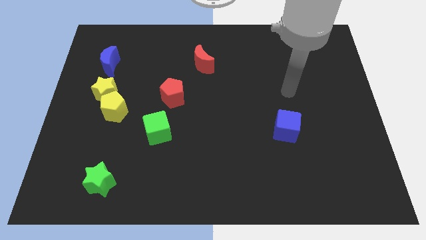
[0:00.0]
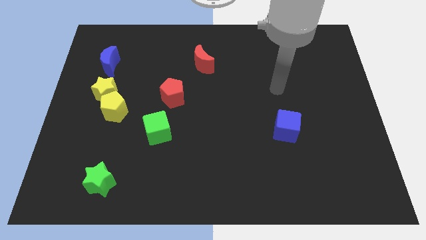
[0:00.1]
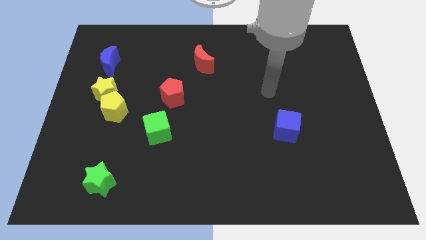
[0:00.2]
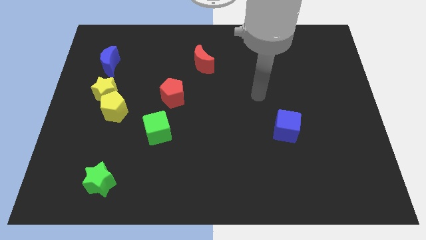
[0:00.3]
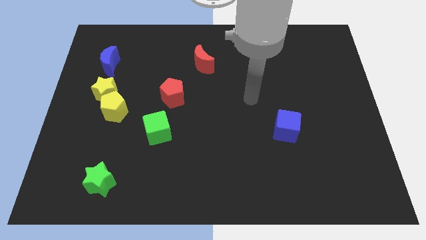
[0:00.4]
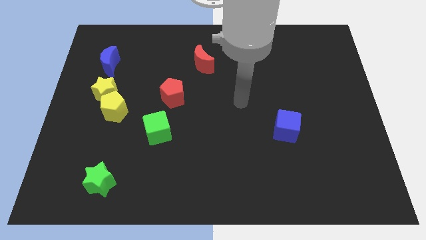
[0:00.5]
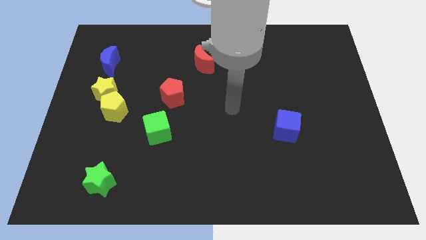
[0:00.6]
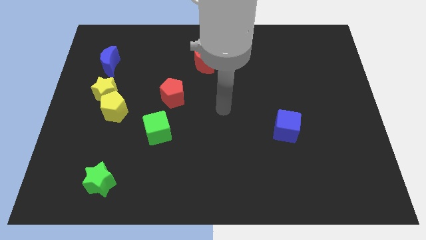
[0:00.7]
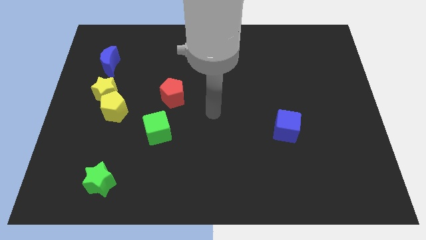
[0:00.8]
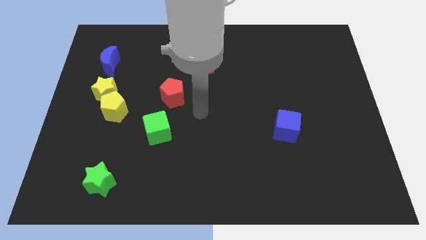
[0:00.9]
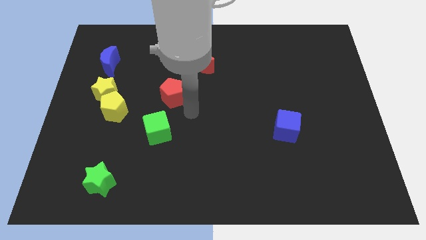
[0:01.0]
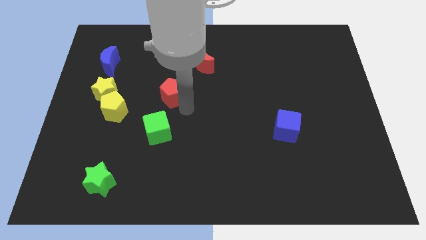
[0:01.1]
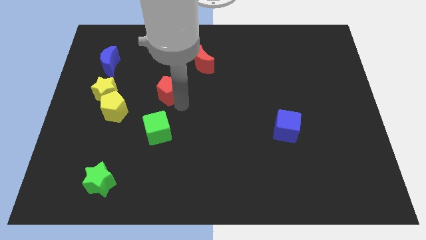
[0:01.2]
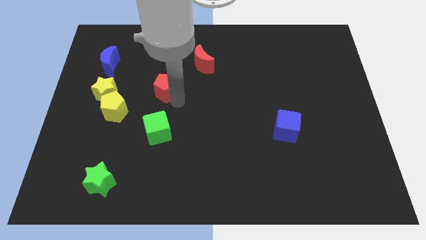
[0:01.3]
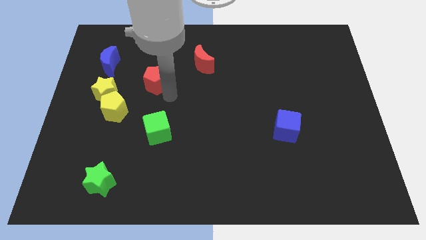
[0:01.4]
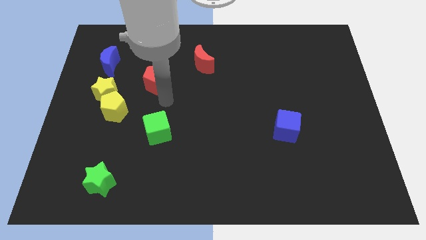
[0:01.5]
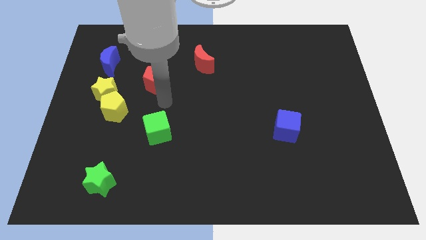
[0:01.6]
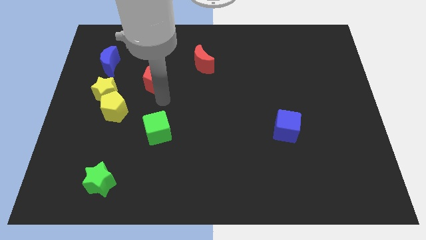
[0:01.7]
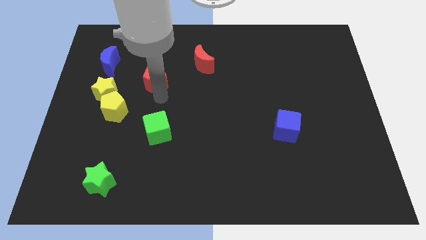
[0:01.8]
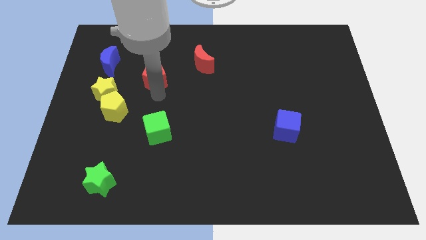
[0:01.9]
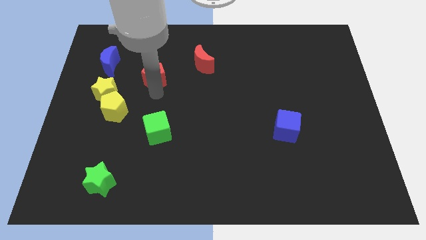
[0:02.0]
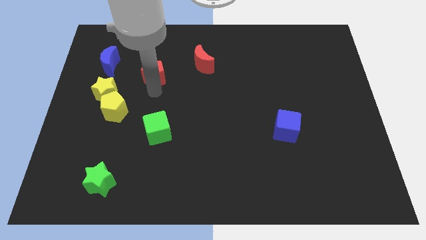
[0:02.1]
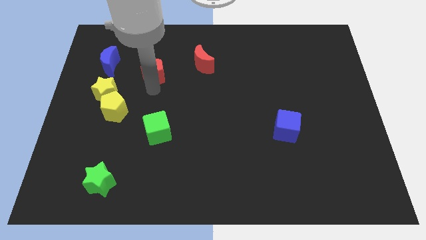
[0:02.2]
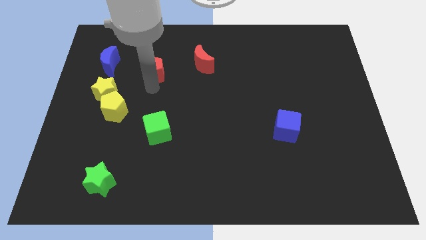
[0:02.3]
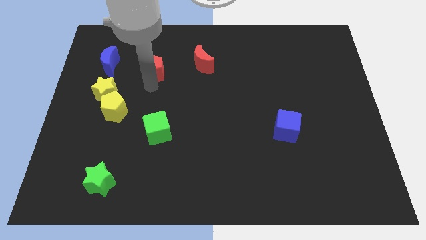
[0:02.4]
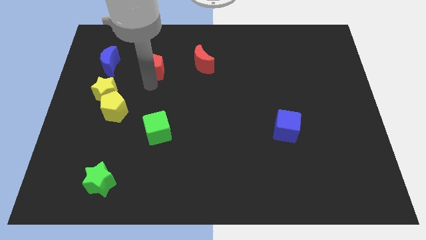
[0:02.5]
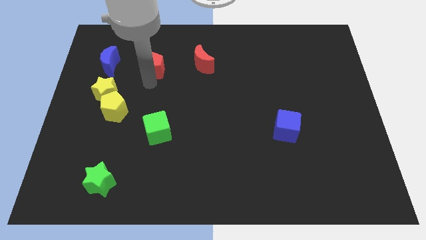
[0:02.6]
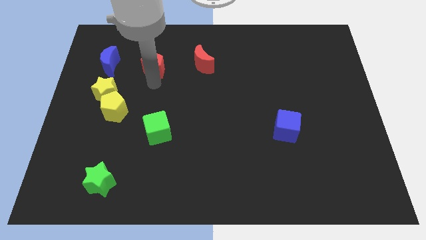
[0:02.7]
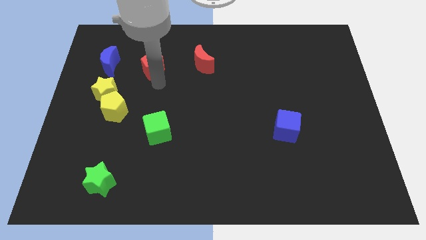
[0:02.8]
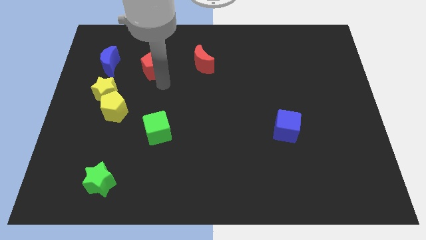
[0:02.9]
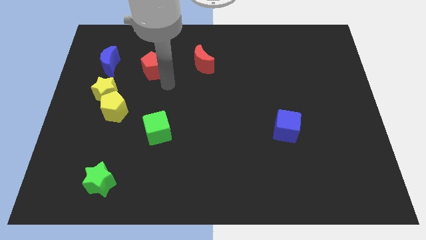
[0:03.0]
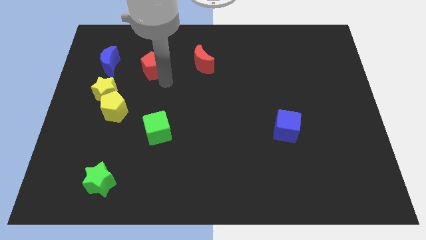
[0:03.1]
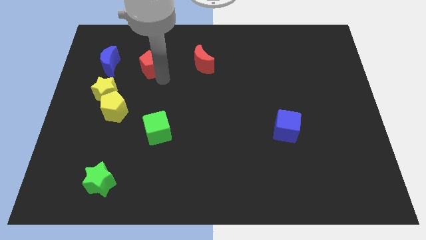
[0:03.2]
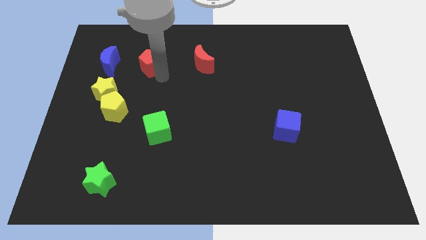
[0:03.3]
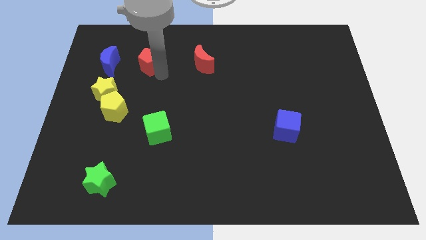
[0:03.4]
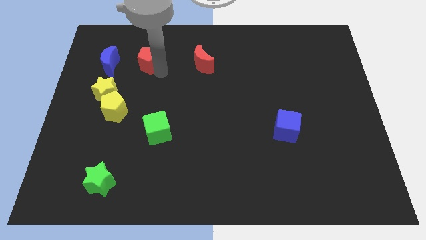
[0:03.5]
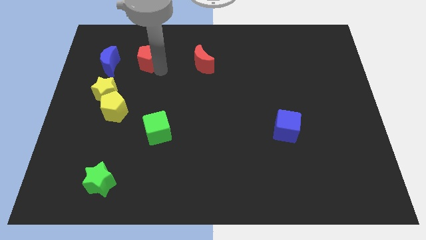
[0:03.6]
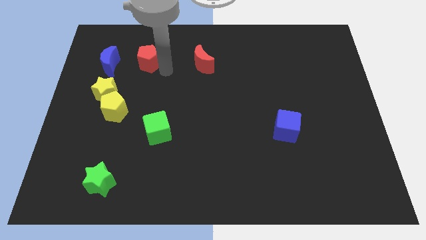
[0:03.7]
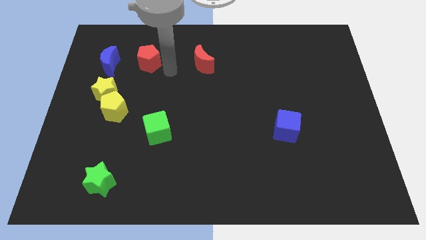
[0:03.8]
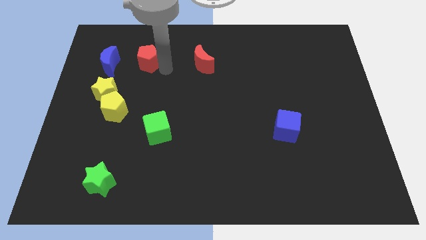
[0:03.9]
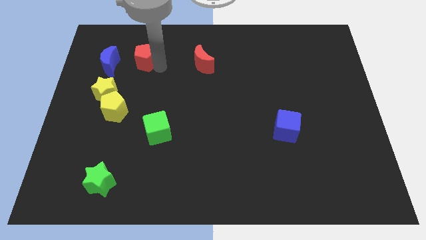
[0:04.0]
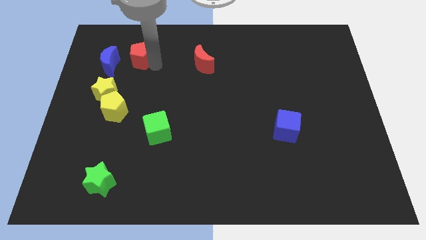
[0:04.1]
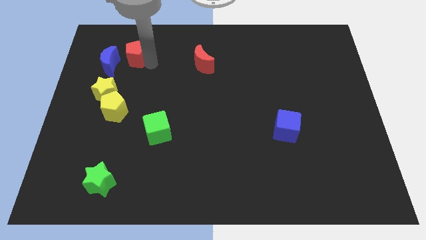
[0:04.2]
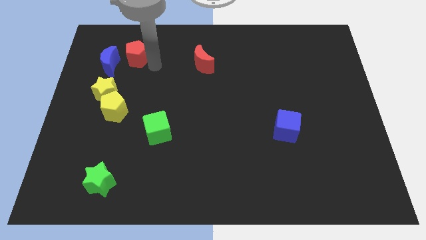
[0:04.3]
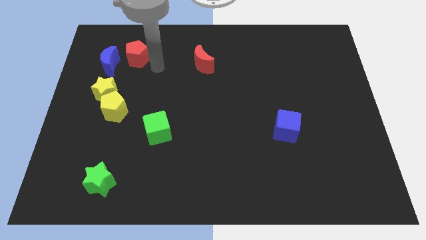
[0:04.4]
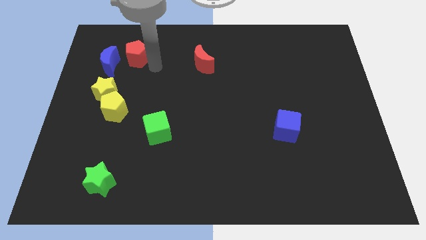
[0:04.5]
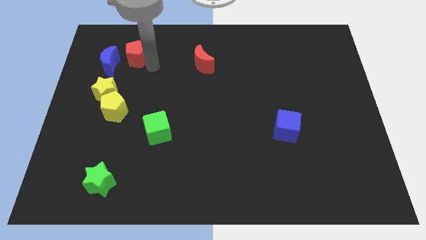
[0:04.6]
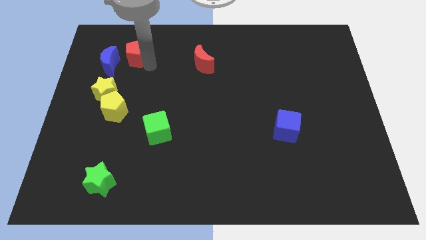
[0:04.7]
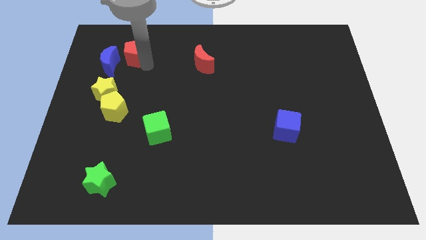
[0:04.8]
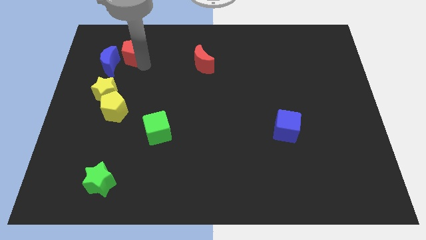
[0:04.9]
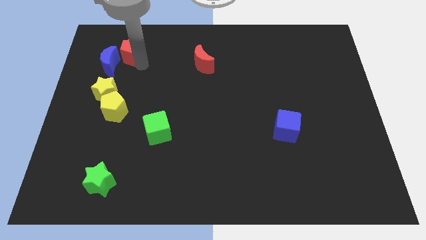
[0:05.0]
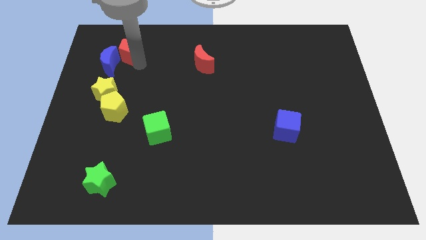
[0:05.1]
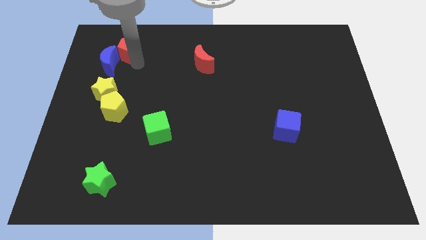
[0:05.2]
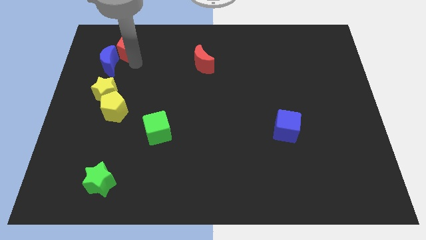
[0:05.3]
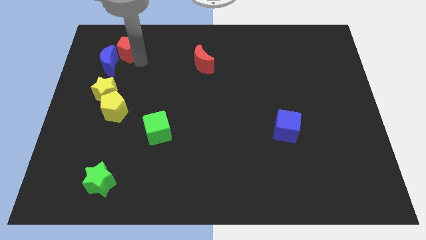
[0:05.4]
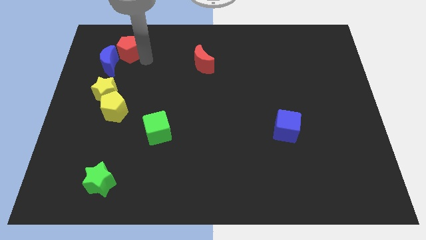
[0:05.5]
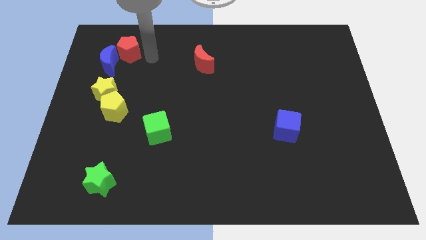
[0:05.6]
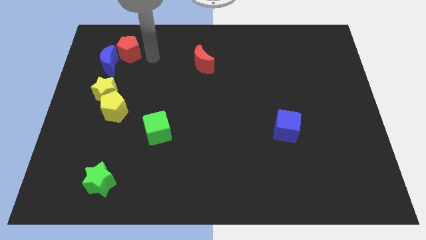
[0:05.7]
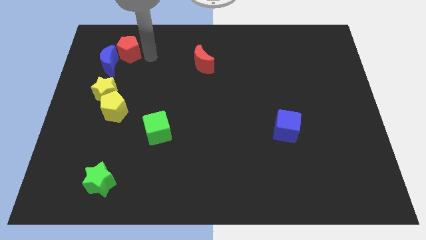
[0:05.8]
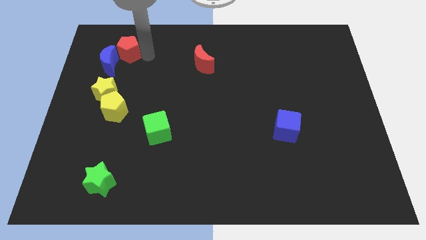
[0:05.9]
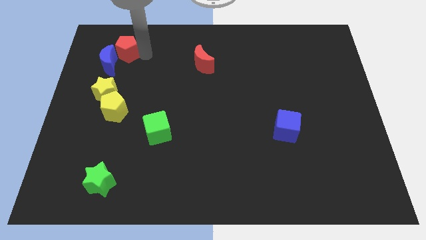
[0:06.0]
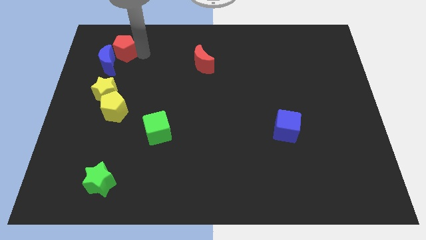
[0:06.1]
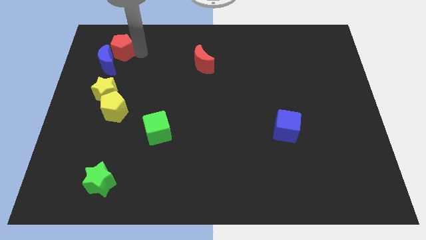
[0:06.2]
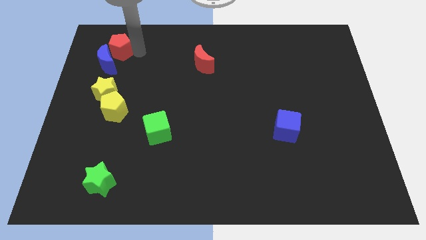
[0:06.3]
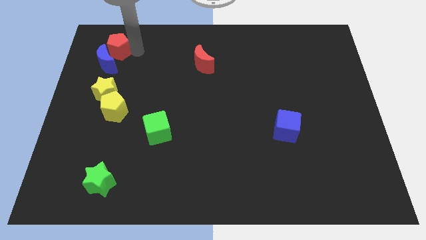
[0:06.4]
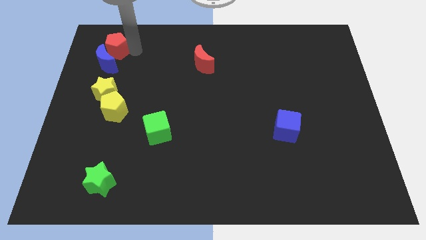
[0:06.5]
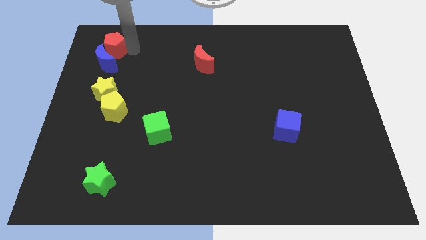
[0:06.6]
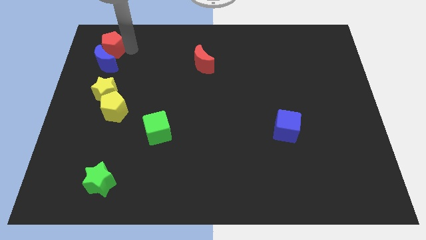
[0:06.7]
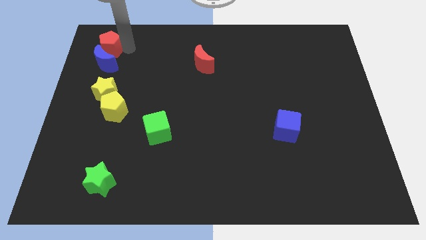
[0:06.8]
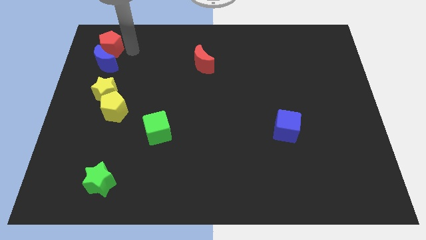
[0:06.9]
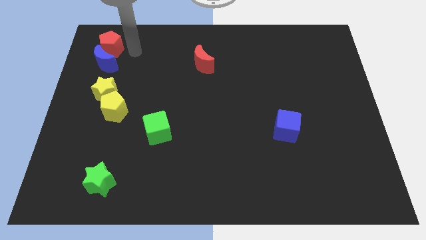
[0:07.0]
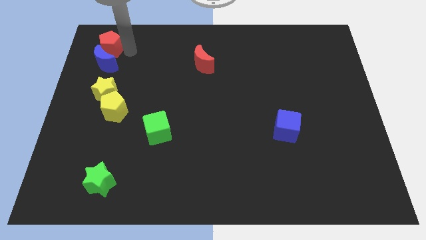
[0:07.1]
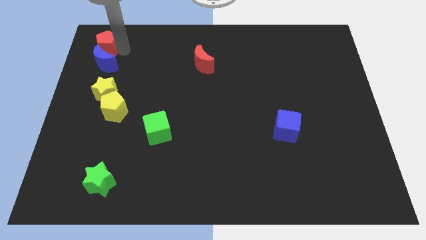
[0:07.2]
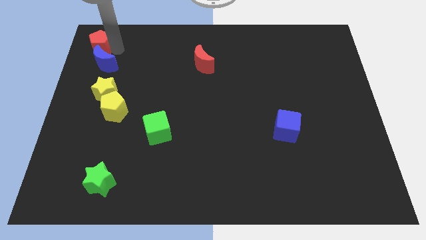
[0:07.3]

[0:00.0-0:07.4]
put the red pentagon to the top left corner
